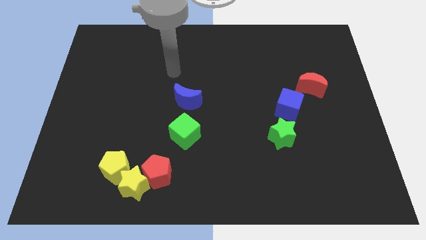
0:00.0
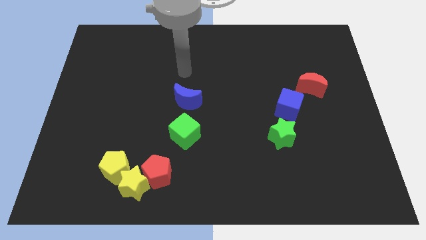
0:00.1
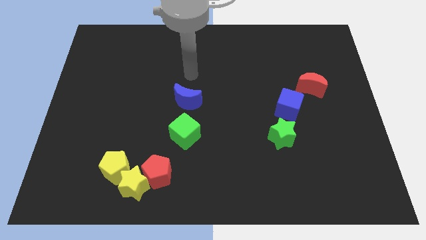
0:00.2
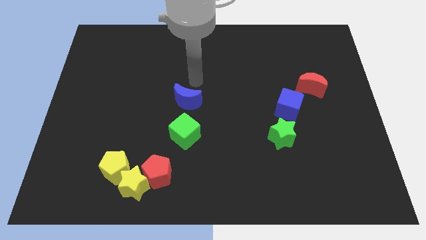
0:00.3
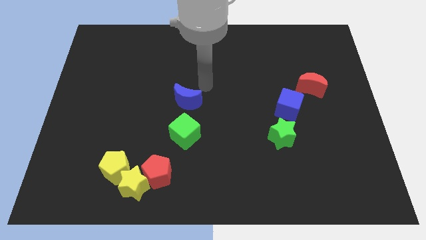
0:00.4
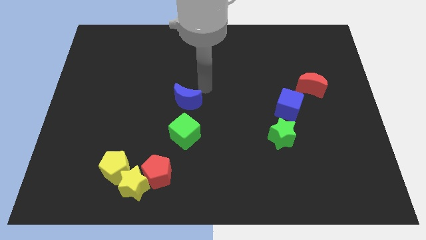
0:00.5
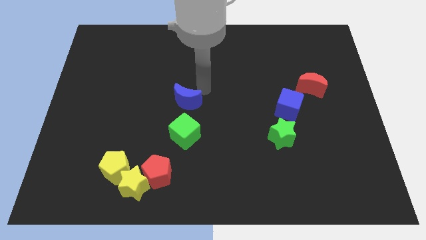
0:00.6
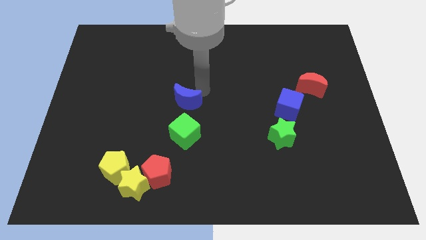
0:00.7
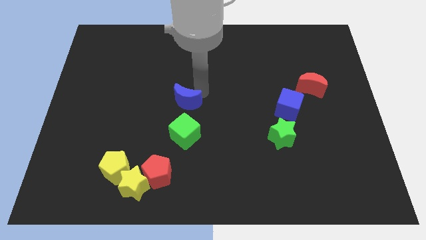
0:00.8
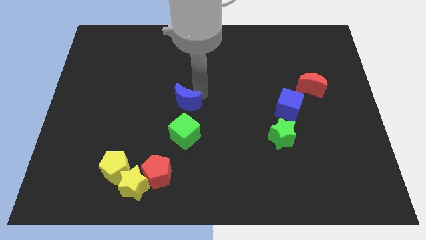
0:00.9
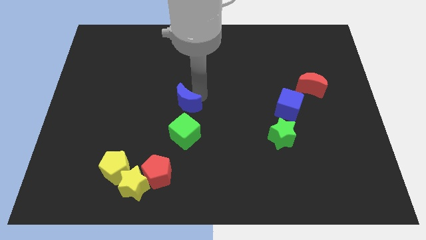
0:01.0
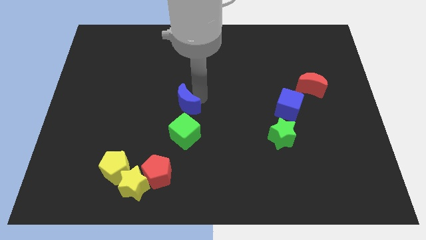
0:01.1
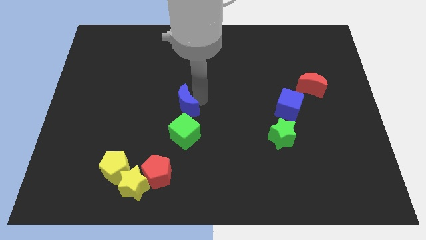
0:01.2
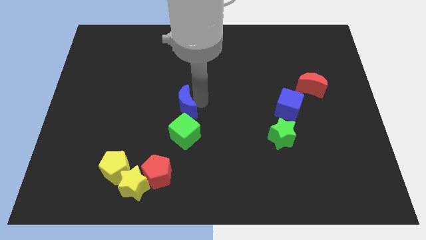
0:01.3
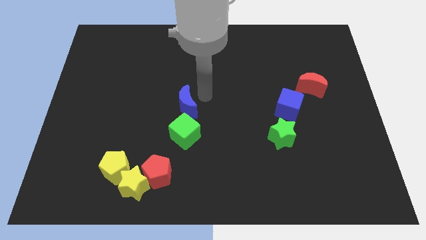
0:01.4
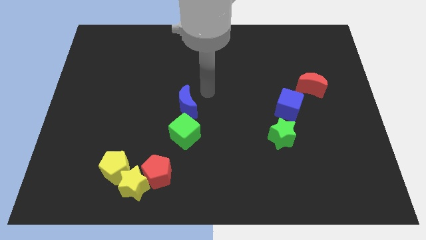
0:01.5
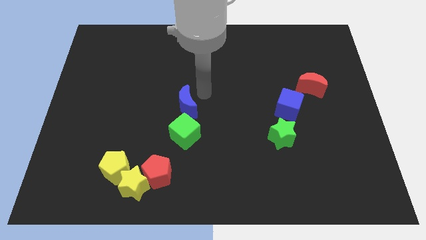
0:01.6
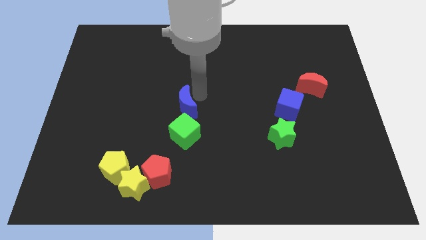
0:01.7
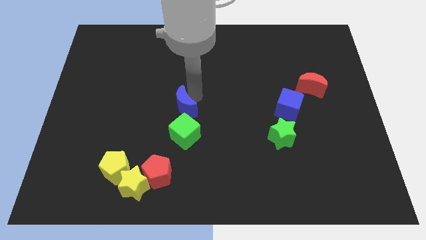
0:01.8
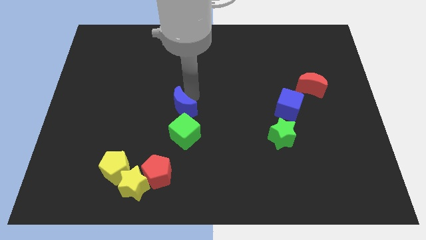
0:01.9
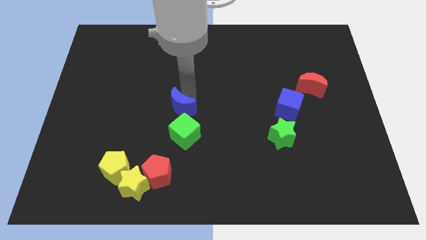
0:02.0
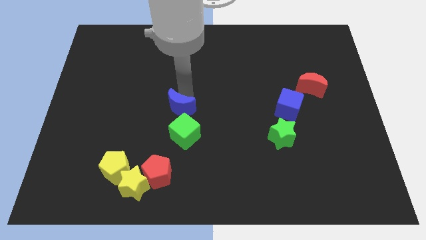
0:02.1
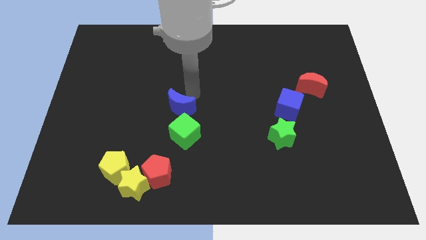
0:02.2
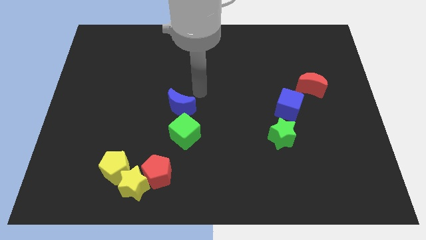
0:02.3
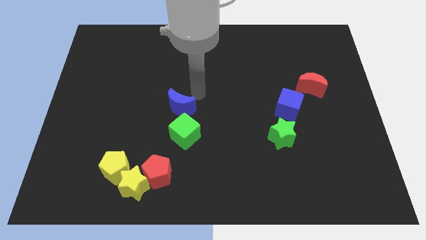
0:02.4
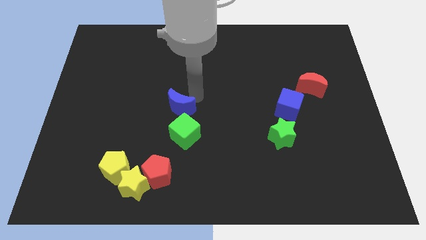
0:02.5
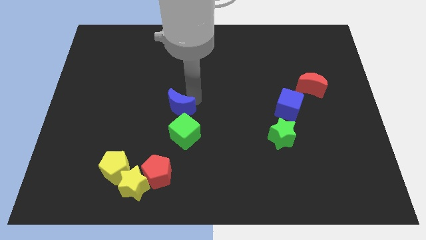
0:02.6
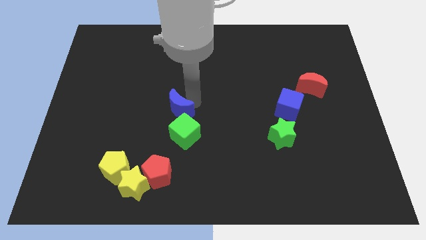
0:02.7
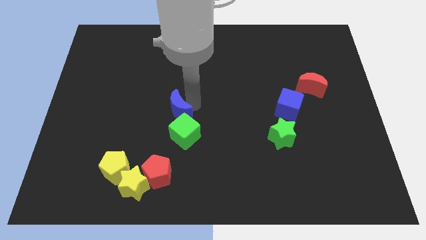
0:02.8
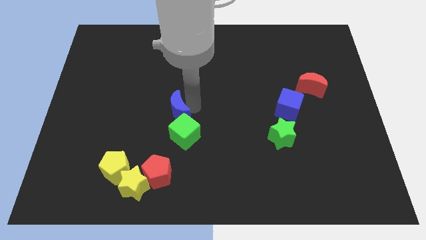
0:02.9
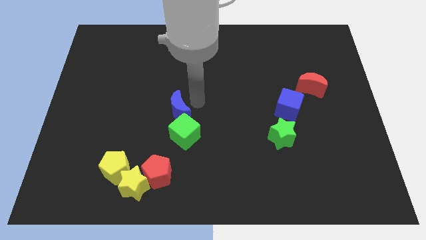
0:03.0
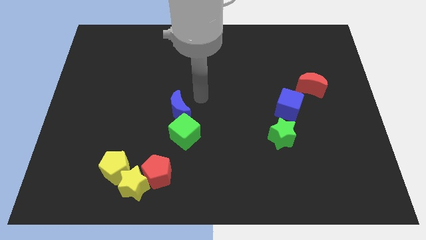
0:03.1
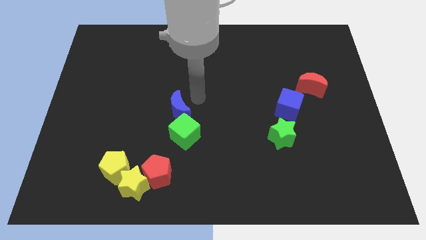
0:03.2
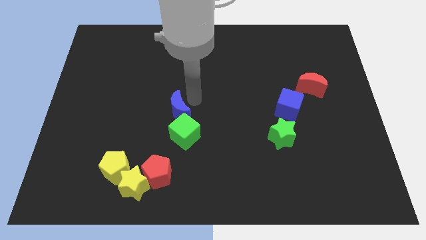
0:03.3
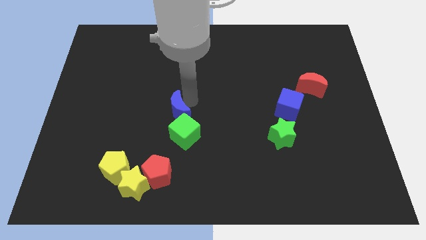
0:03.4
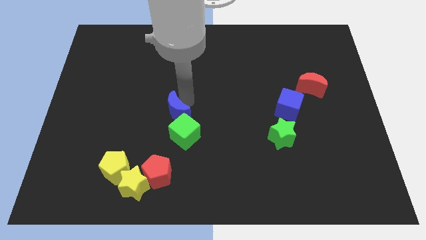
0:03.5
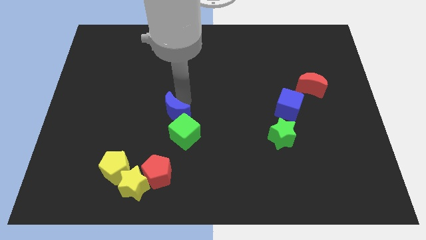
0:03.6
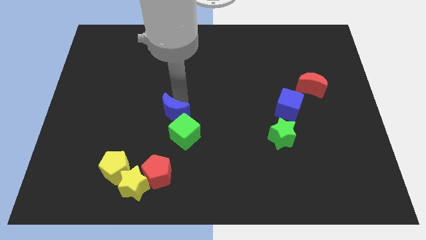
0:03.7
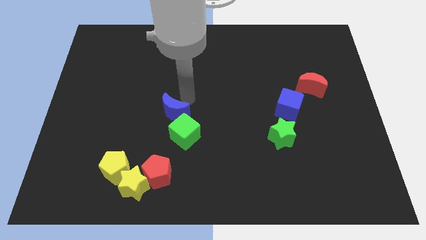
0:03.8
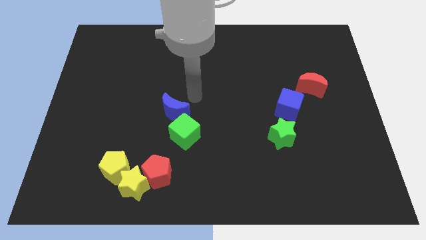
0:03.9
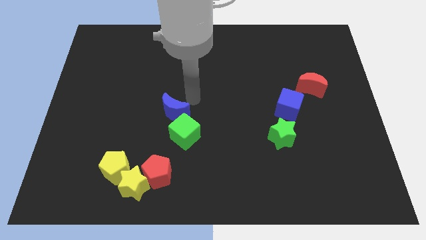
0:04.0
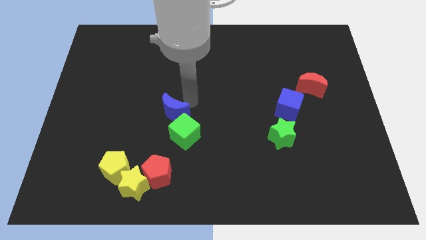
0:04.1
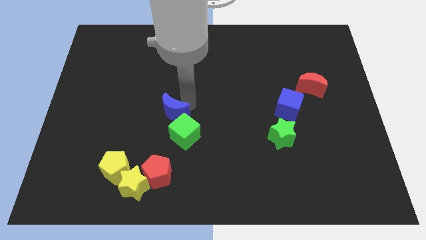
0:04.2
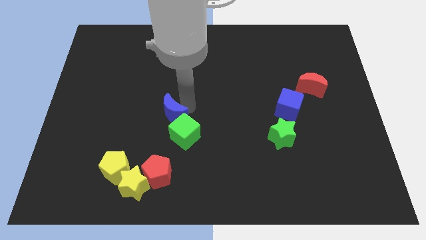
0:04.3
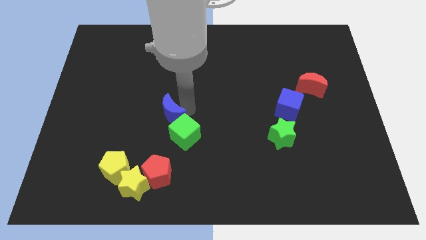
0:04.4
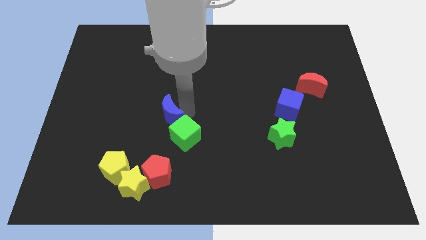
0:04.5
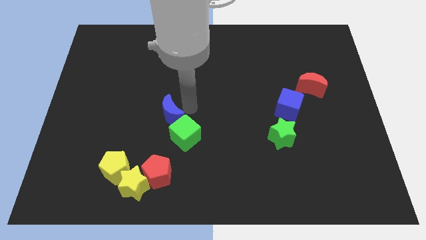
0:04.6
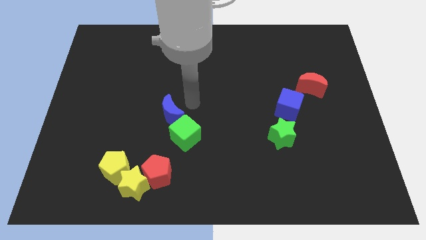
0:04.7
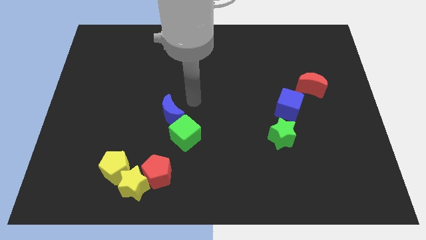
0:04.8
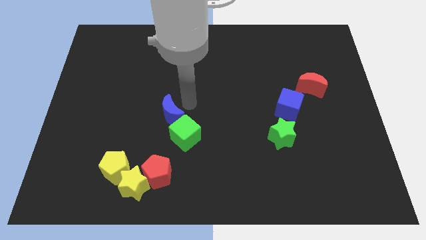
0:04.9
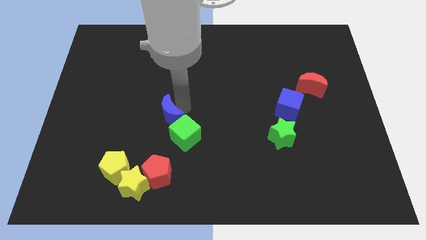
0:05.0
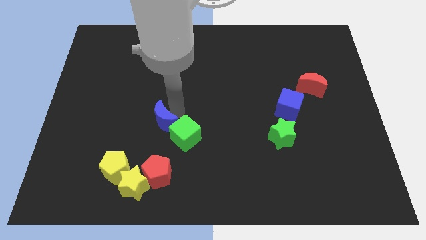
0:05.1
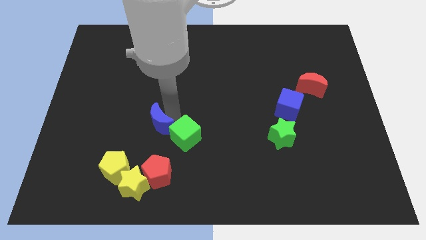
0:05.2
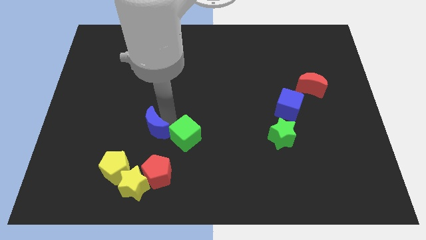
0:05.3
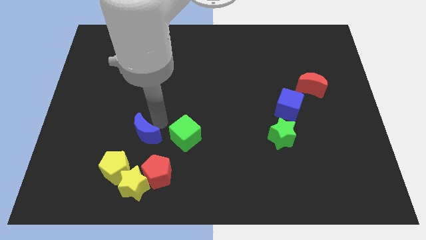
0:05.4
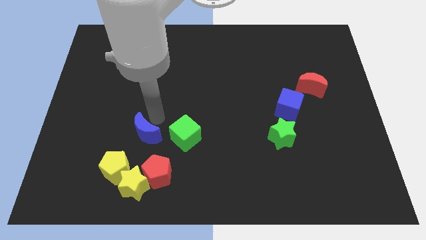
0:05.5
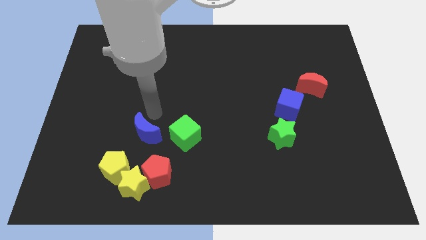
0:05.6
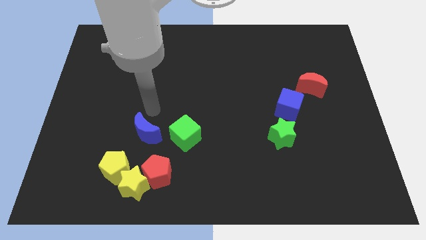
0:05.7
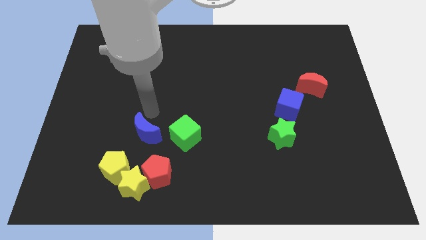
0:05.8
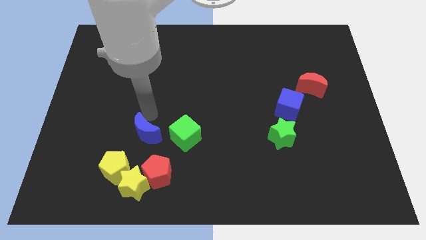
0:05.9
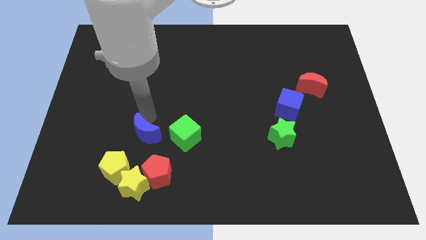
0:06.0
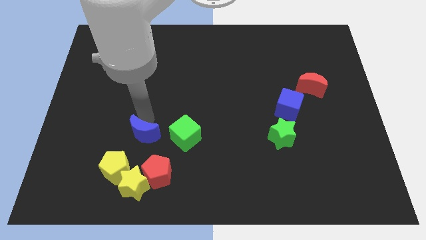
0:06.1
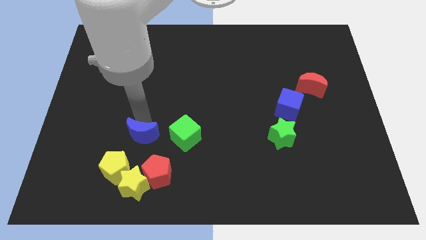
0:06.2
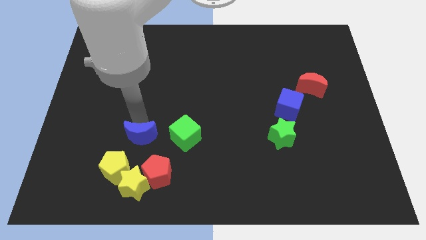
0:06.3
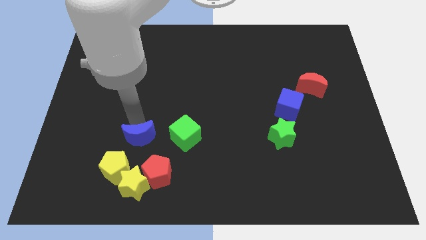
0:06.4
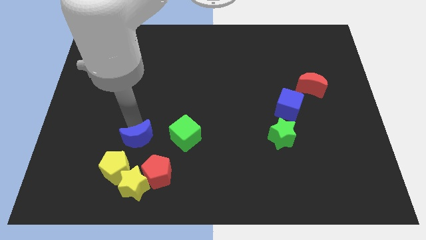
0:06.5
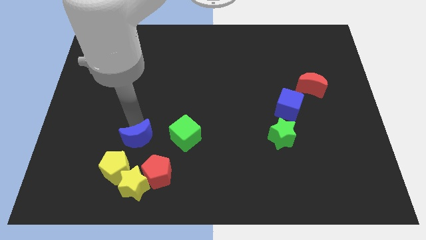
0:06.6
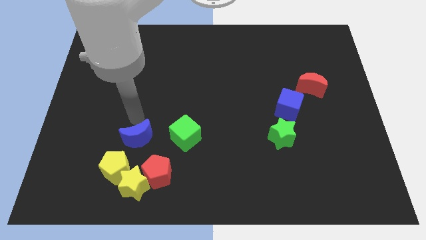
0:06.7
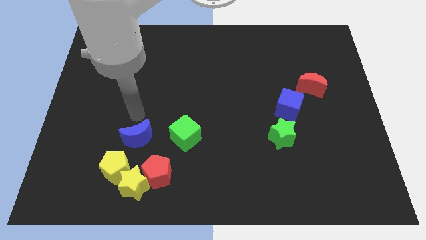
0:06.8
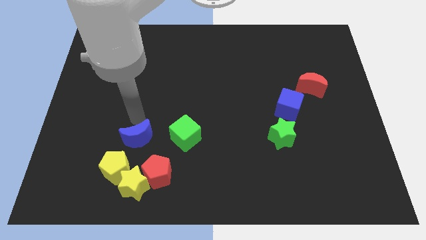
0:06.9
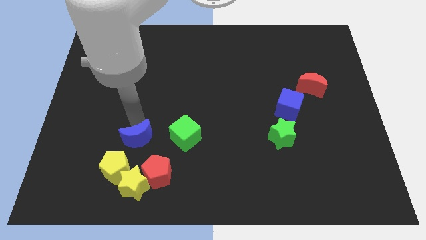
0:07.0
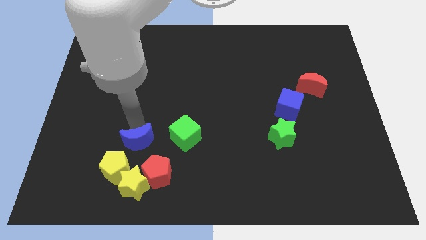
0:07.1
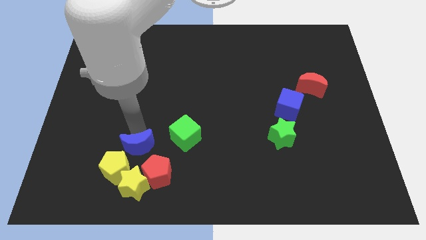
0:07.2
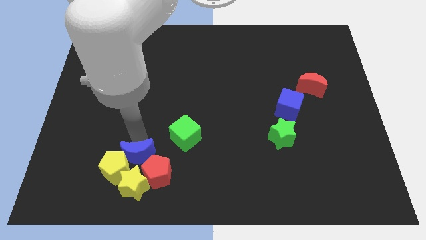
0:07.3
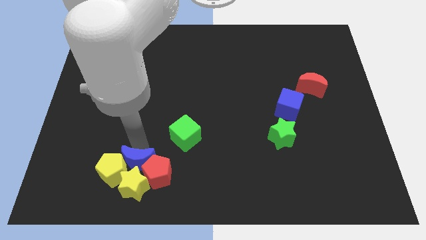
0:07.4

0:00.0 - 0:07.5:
put the blue moon close to the yellow star
